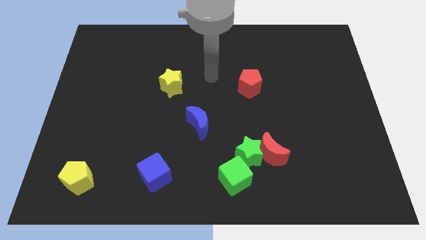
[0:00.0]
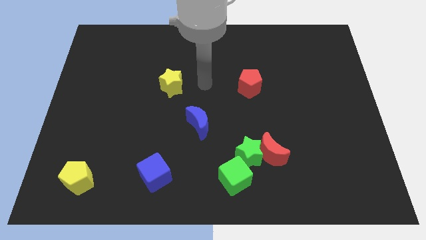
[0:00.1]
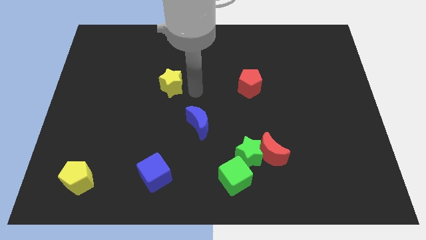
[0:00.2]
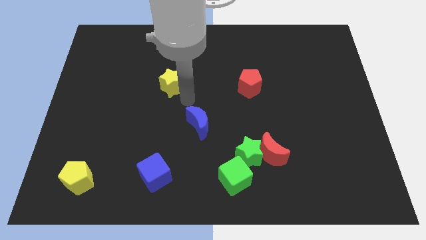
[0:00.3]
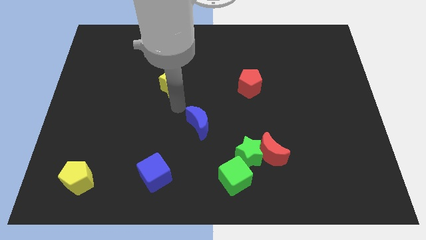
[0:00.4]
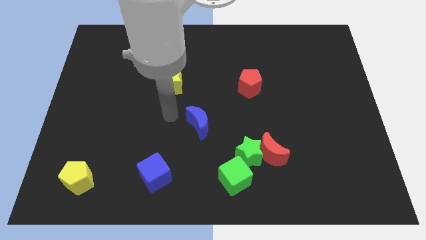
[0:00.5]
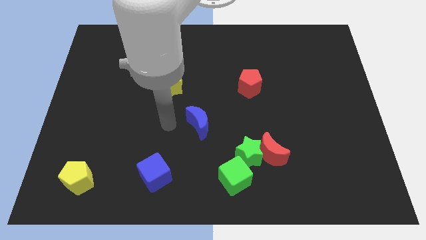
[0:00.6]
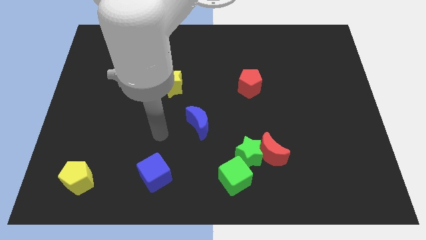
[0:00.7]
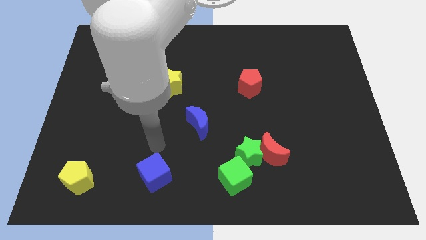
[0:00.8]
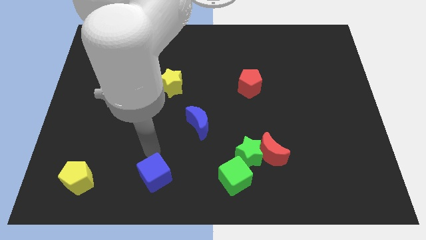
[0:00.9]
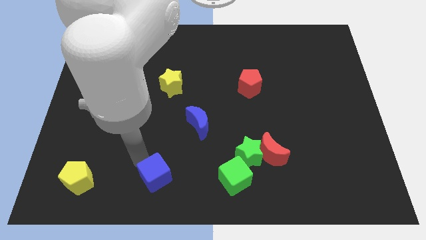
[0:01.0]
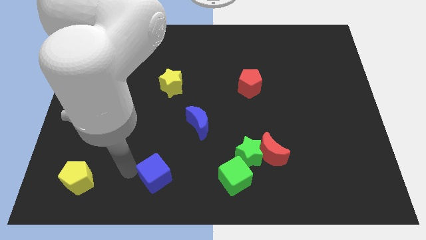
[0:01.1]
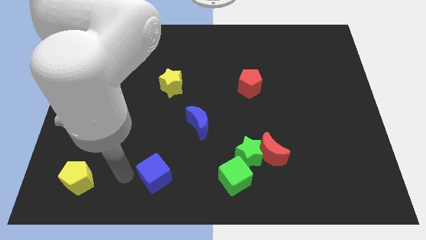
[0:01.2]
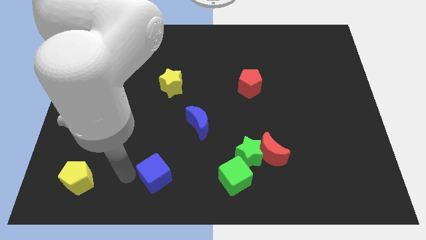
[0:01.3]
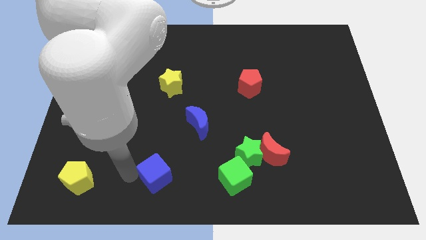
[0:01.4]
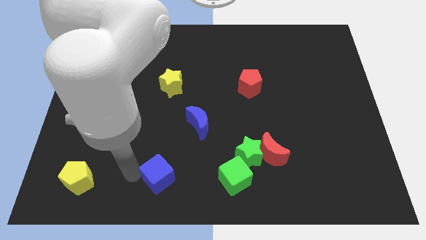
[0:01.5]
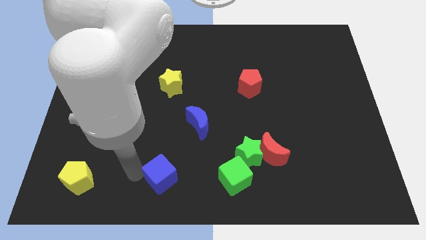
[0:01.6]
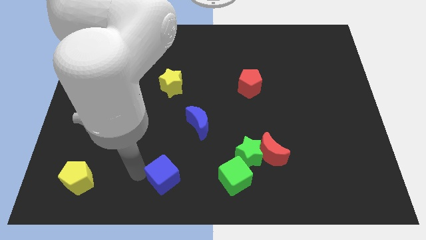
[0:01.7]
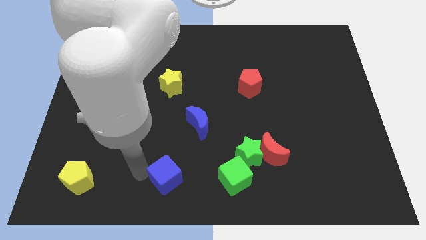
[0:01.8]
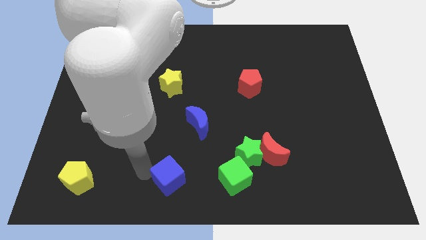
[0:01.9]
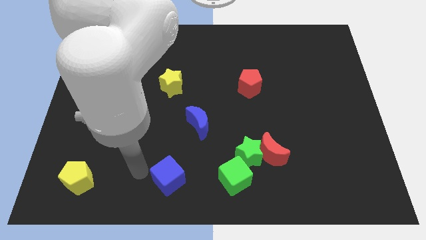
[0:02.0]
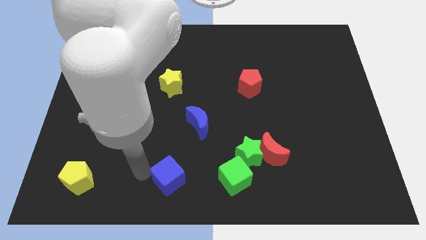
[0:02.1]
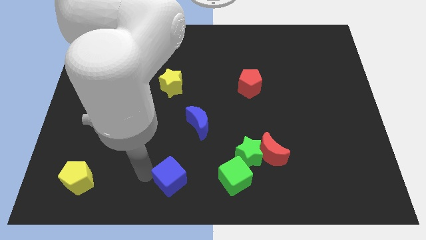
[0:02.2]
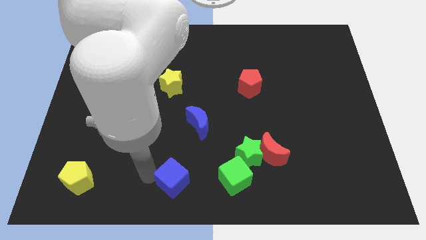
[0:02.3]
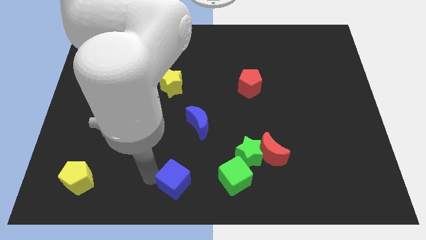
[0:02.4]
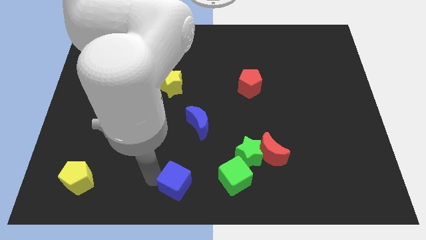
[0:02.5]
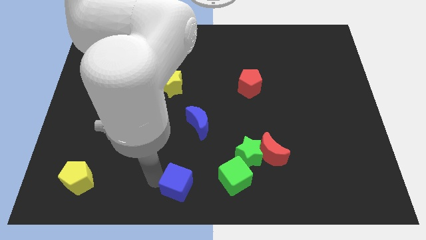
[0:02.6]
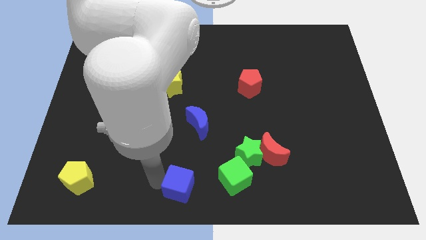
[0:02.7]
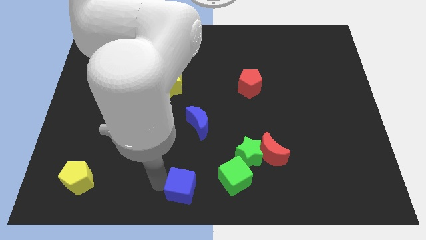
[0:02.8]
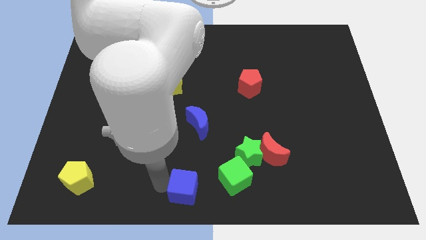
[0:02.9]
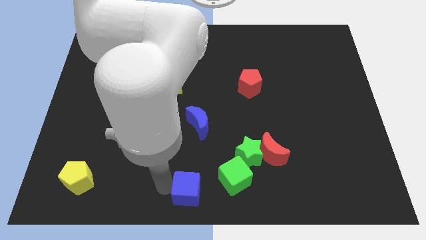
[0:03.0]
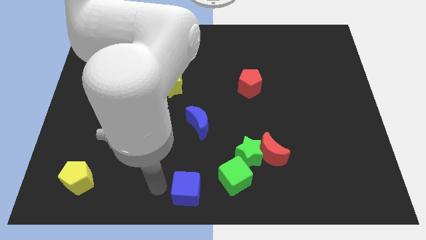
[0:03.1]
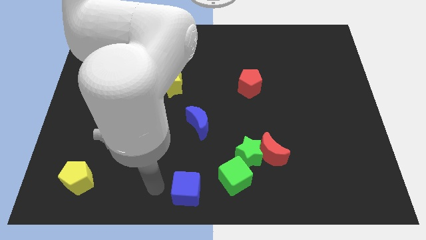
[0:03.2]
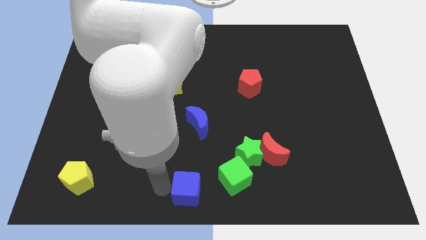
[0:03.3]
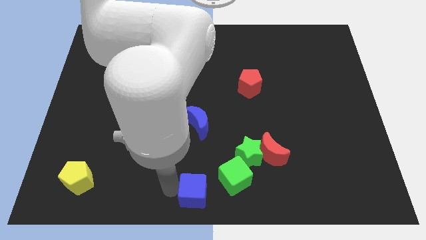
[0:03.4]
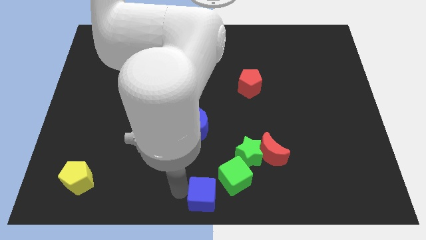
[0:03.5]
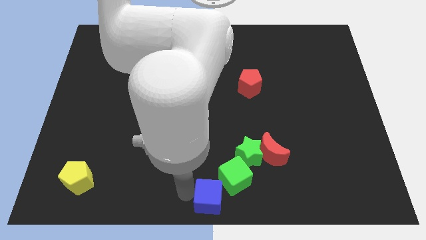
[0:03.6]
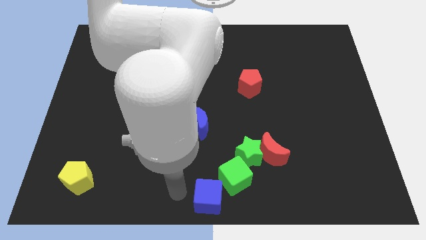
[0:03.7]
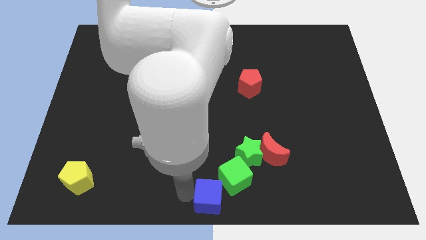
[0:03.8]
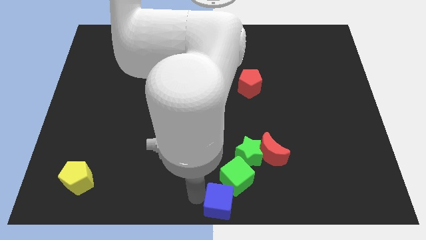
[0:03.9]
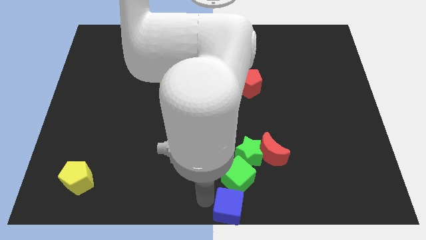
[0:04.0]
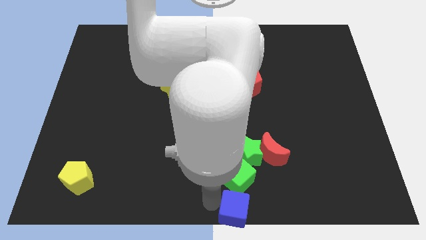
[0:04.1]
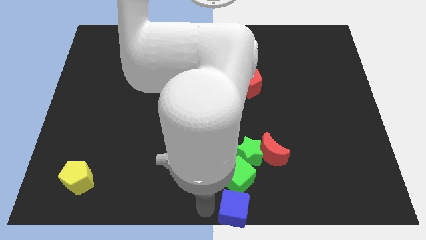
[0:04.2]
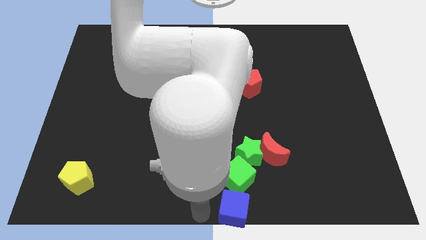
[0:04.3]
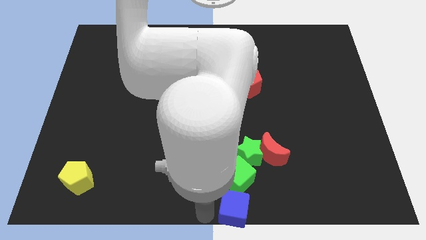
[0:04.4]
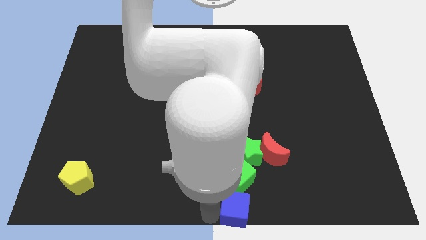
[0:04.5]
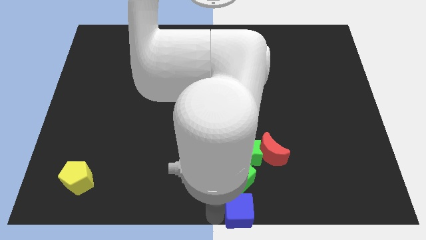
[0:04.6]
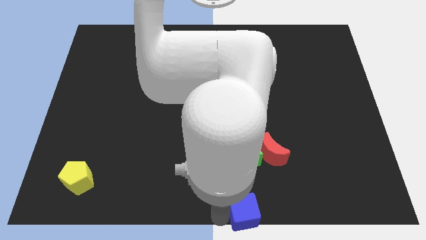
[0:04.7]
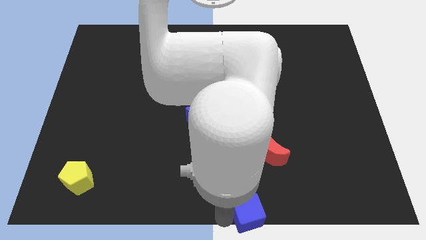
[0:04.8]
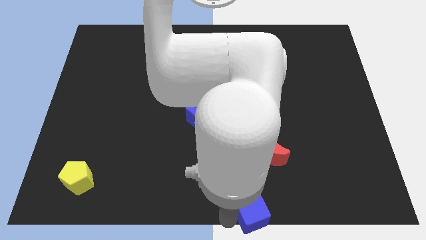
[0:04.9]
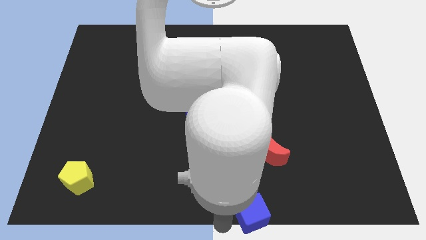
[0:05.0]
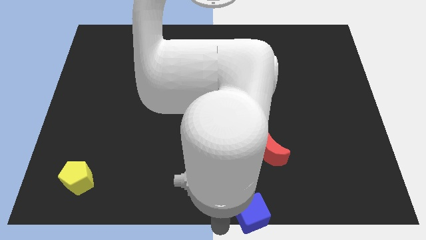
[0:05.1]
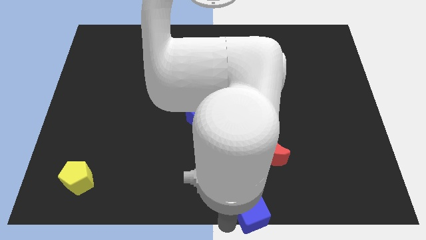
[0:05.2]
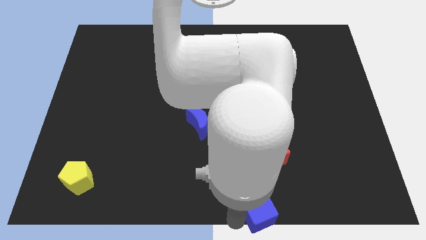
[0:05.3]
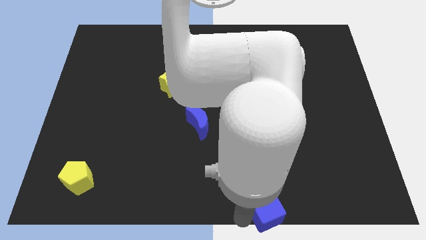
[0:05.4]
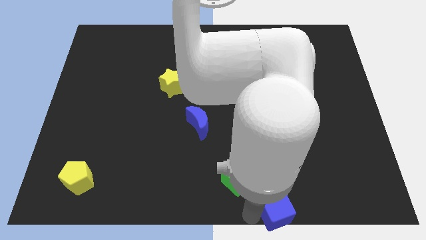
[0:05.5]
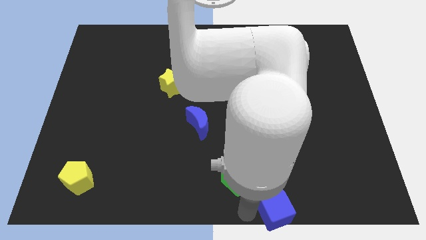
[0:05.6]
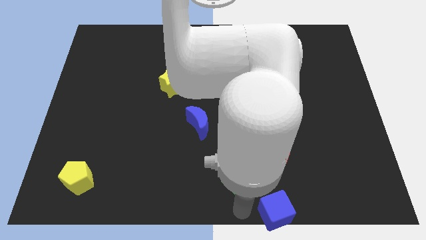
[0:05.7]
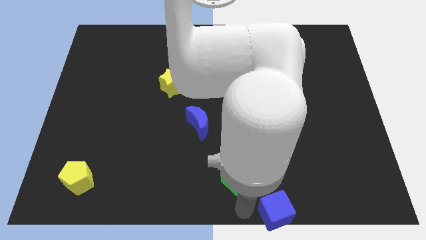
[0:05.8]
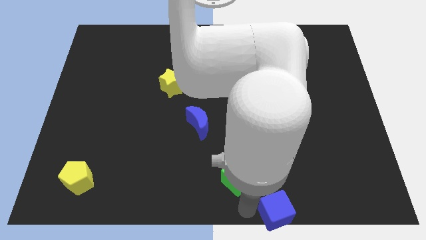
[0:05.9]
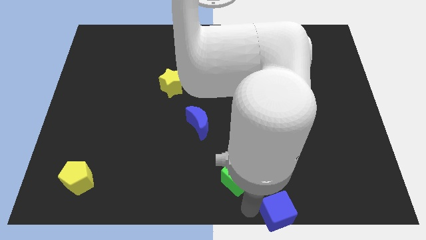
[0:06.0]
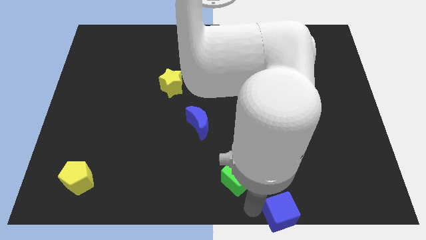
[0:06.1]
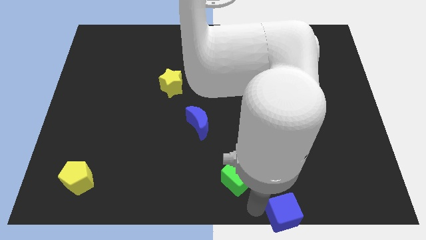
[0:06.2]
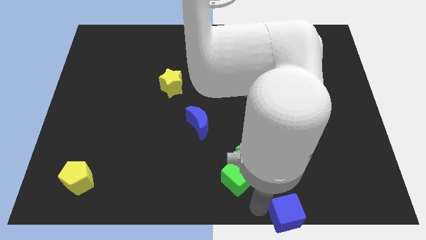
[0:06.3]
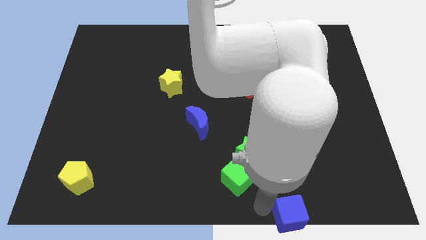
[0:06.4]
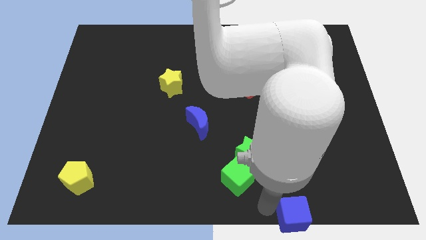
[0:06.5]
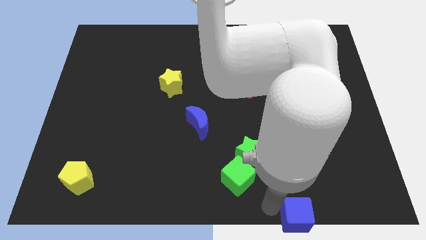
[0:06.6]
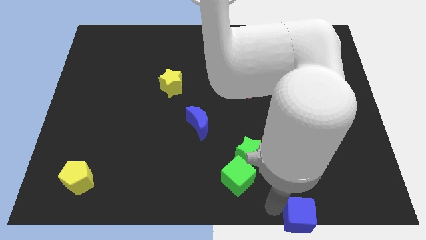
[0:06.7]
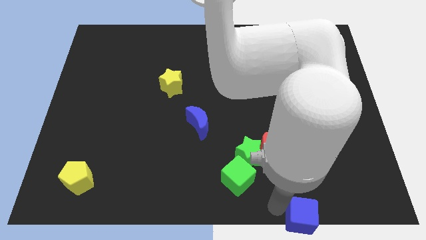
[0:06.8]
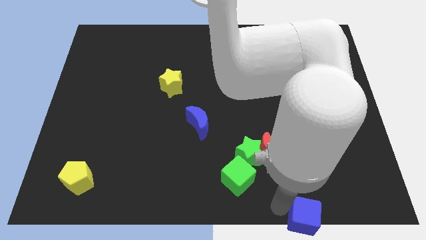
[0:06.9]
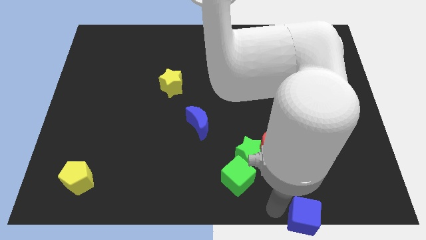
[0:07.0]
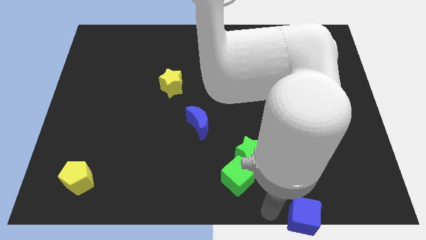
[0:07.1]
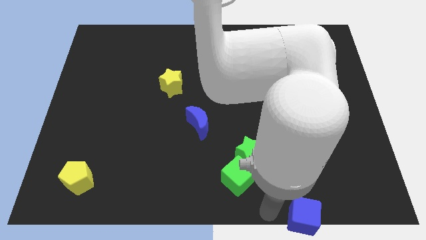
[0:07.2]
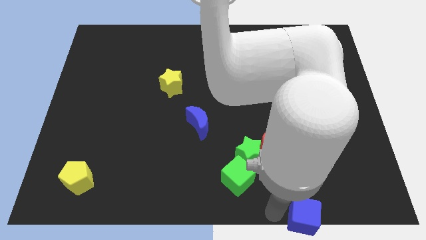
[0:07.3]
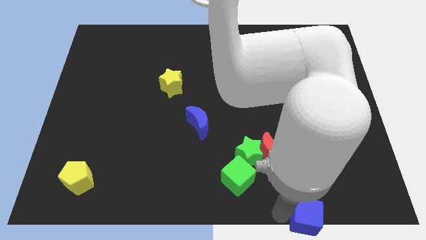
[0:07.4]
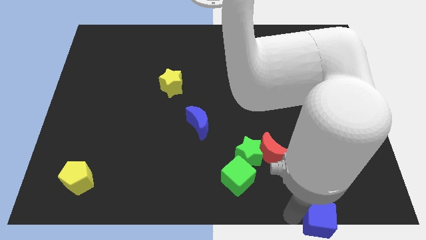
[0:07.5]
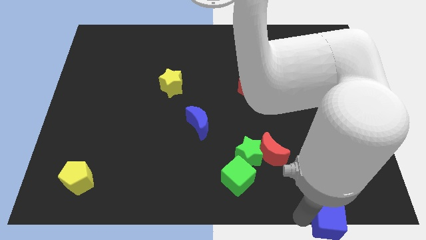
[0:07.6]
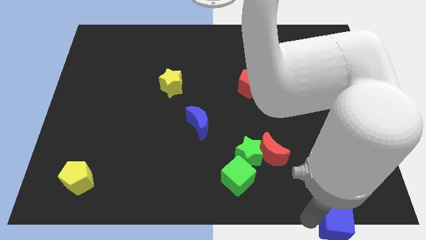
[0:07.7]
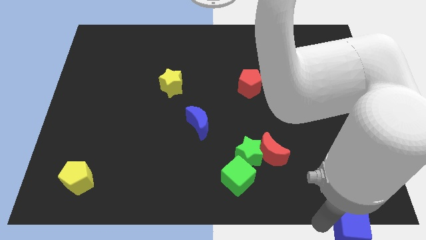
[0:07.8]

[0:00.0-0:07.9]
push the blue cube to the bottom right of the board
